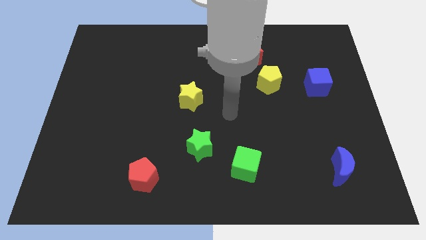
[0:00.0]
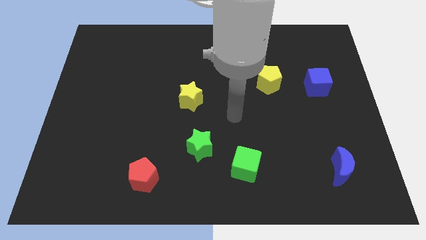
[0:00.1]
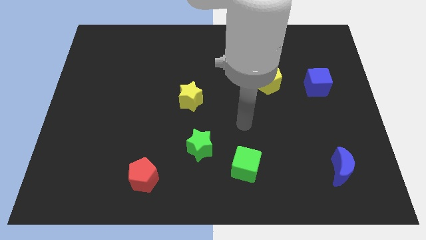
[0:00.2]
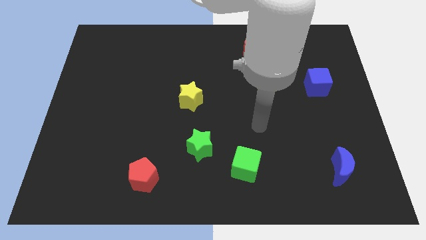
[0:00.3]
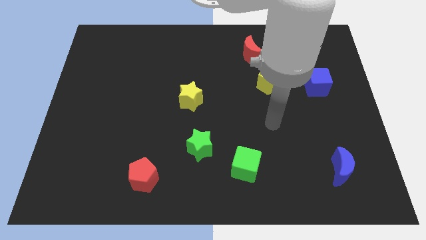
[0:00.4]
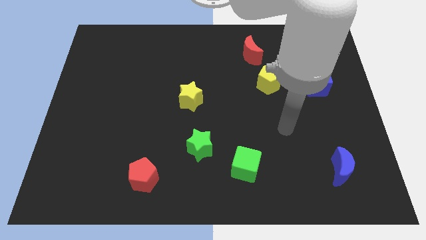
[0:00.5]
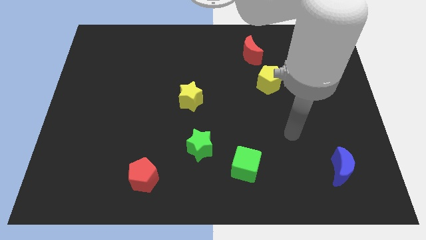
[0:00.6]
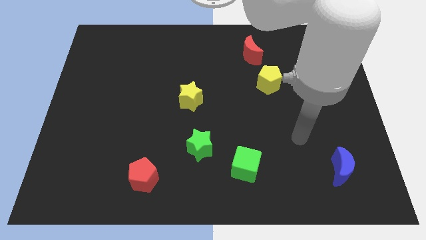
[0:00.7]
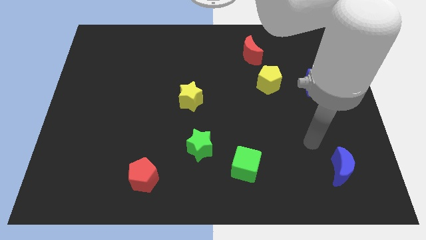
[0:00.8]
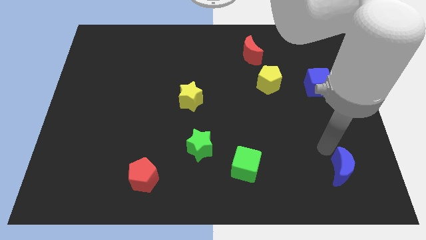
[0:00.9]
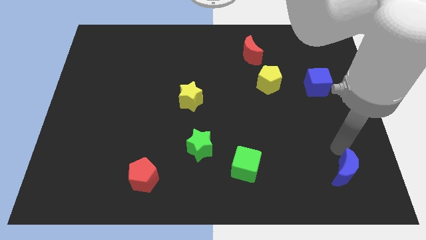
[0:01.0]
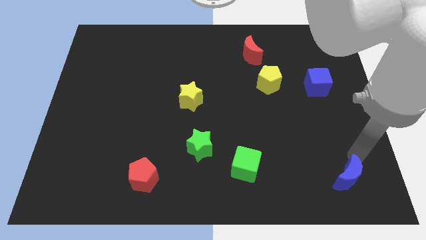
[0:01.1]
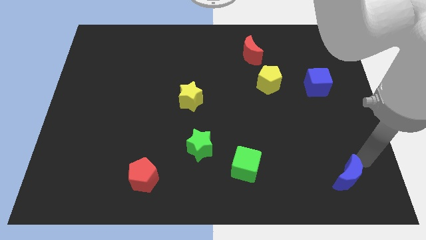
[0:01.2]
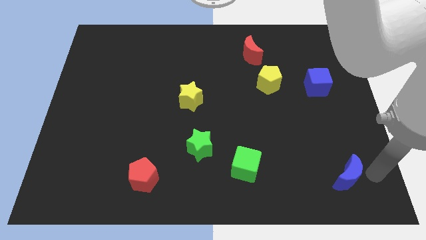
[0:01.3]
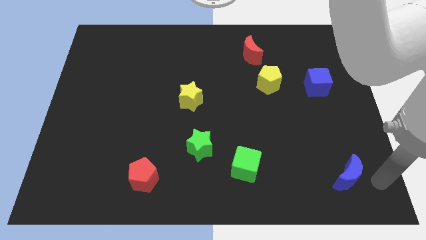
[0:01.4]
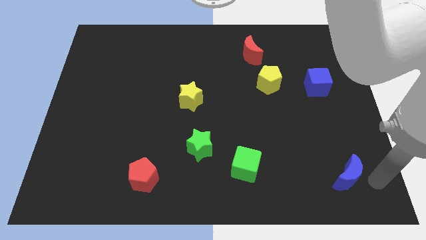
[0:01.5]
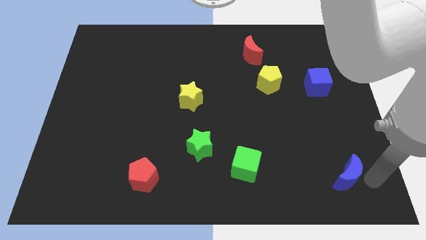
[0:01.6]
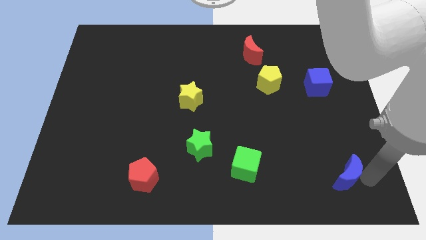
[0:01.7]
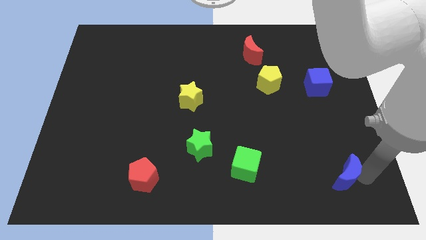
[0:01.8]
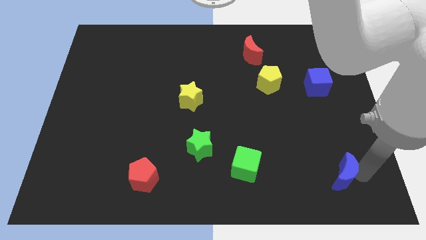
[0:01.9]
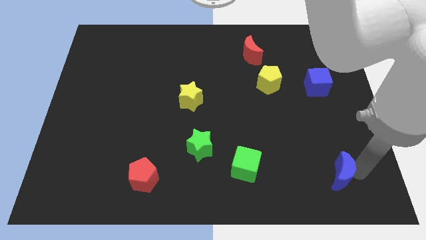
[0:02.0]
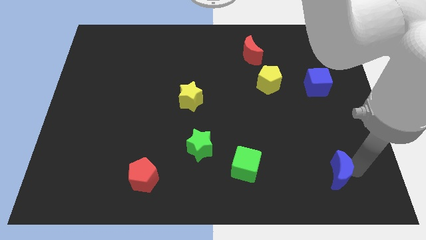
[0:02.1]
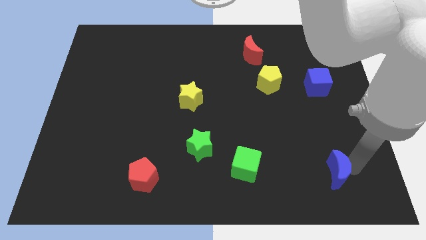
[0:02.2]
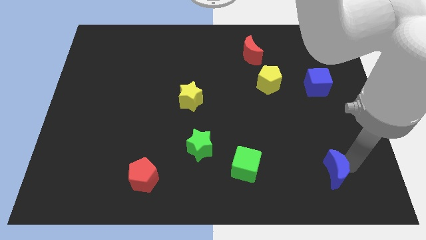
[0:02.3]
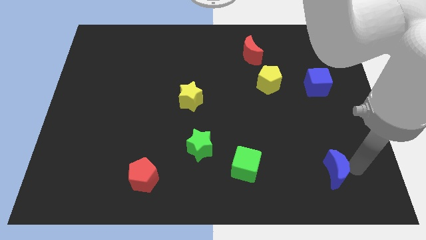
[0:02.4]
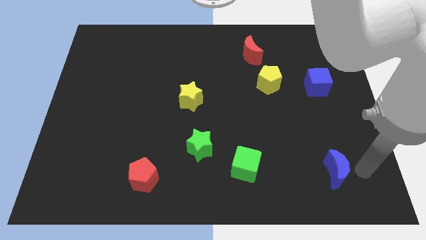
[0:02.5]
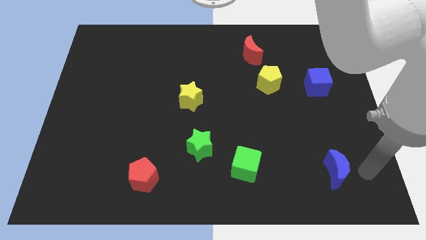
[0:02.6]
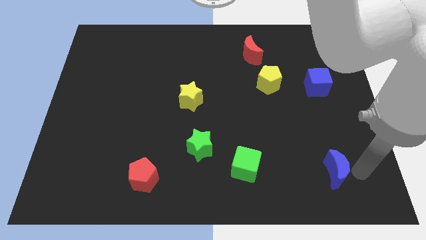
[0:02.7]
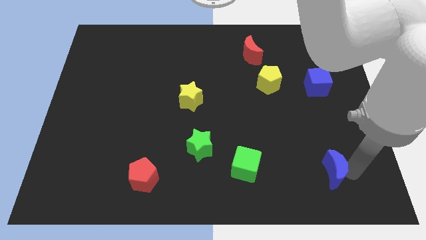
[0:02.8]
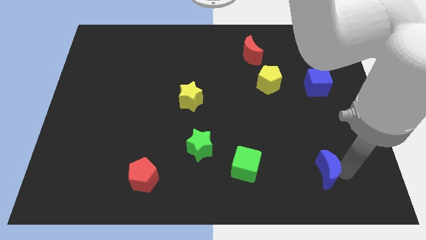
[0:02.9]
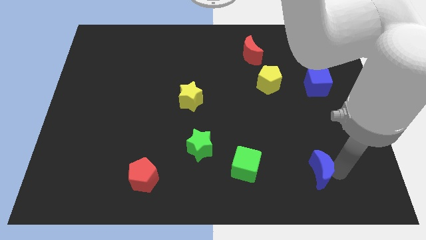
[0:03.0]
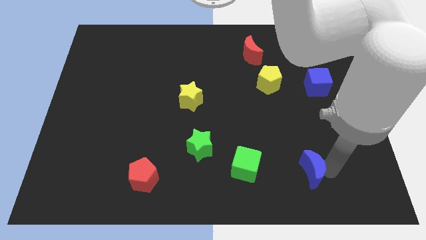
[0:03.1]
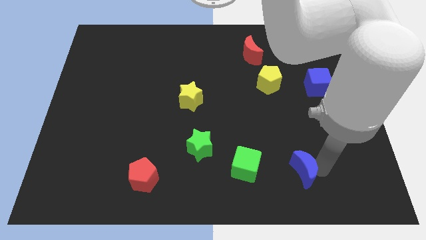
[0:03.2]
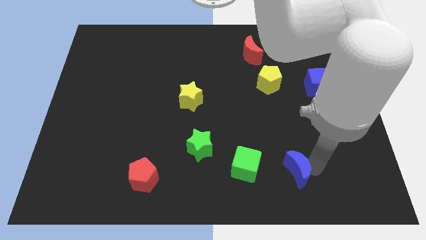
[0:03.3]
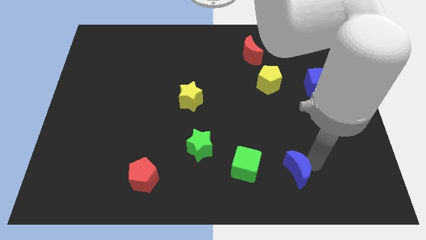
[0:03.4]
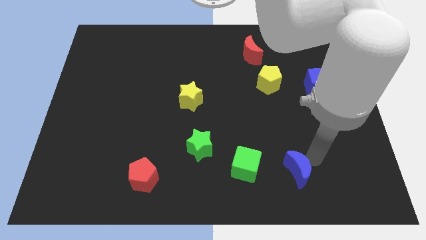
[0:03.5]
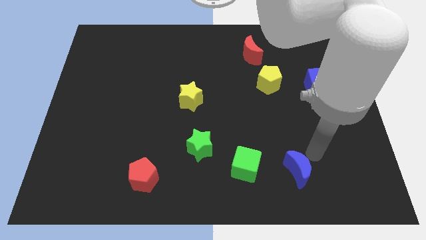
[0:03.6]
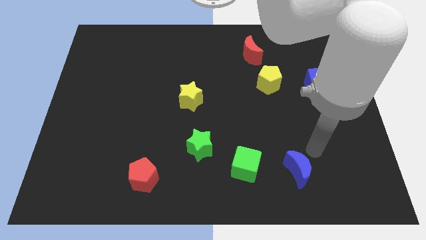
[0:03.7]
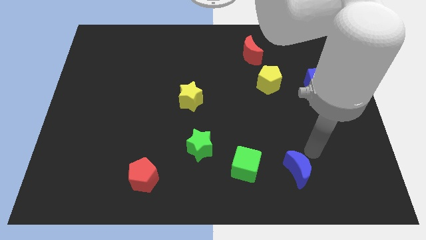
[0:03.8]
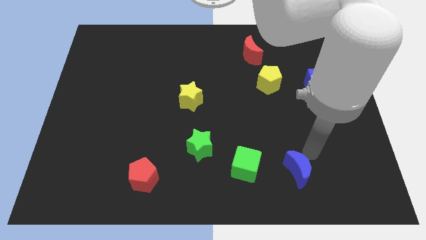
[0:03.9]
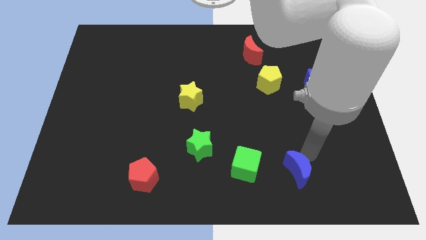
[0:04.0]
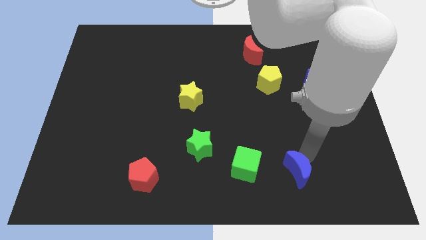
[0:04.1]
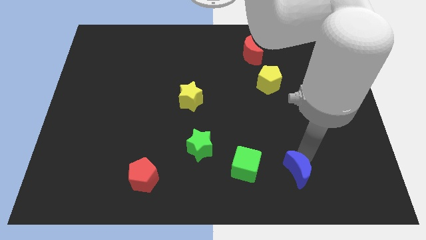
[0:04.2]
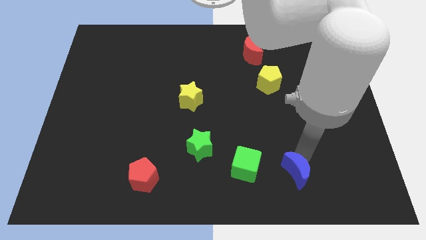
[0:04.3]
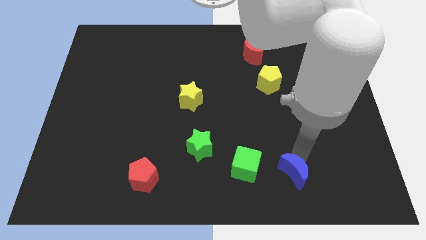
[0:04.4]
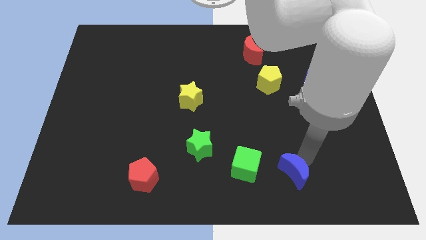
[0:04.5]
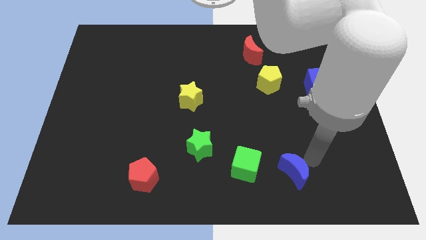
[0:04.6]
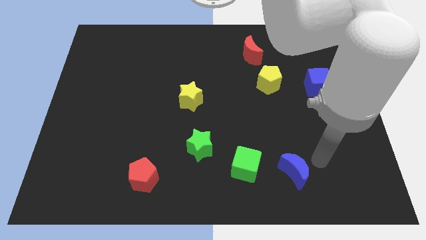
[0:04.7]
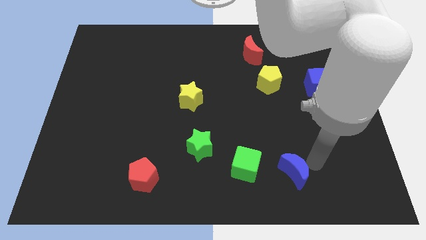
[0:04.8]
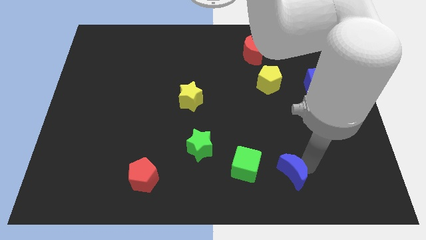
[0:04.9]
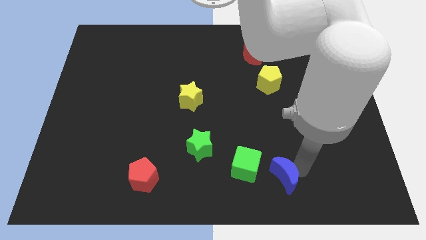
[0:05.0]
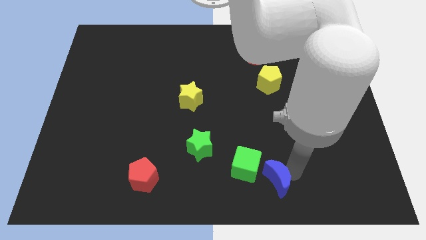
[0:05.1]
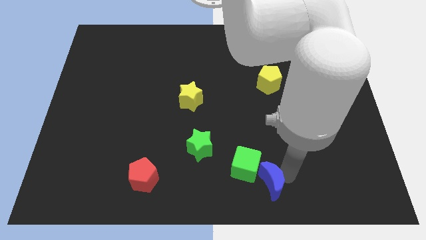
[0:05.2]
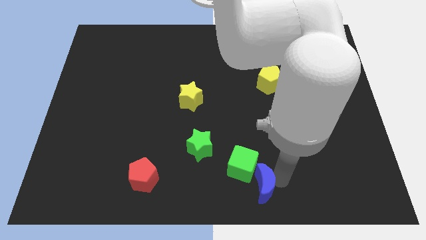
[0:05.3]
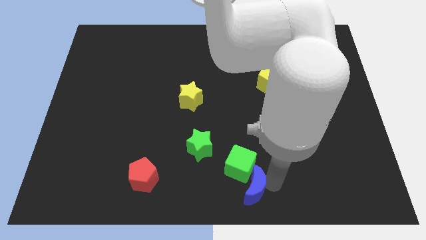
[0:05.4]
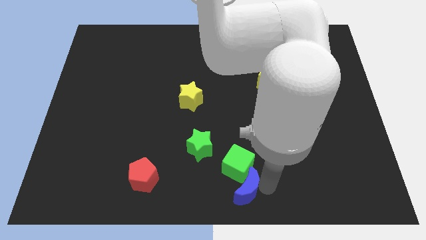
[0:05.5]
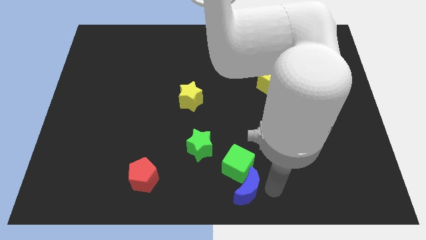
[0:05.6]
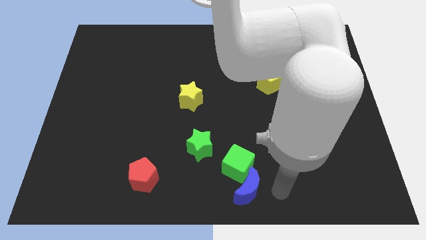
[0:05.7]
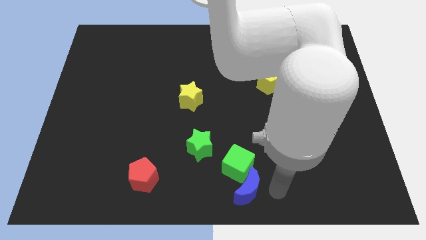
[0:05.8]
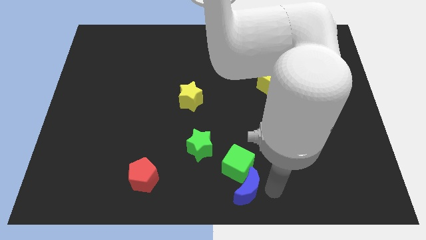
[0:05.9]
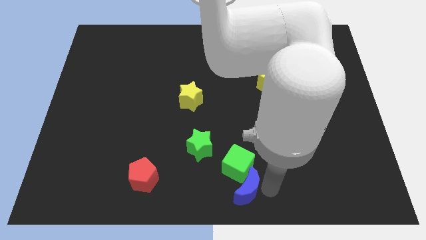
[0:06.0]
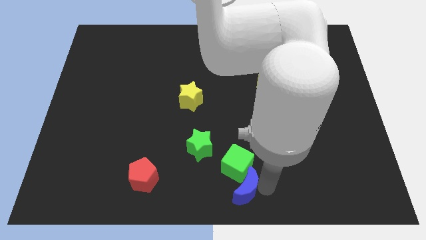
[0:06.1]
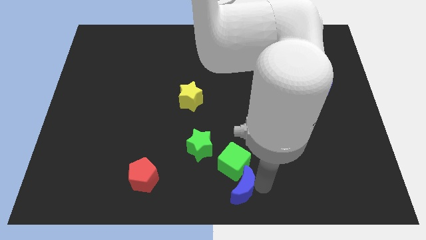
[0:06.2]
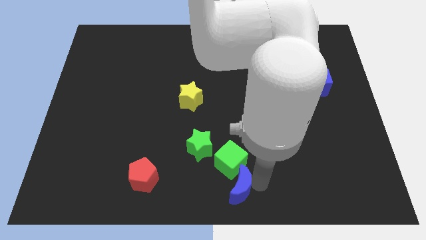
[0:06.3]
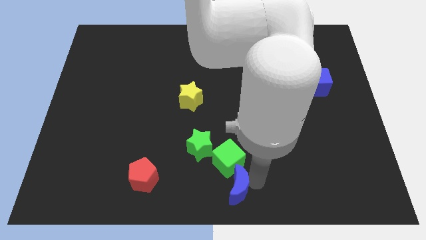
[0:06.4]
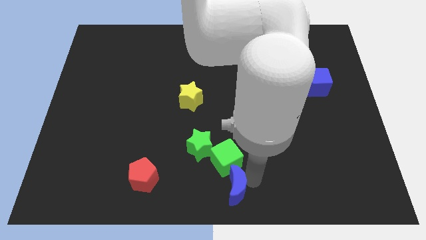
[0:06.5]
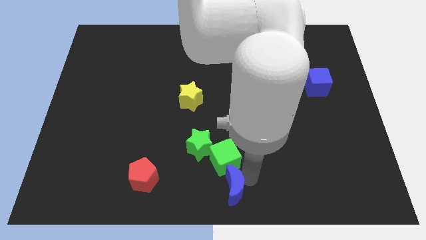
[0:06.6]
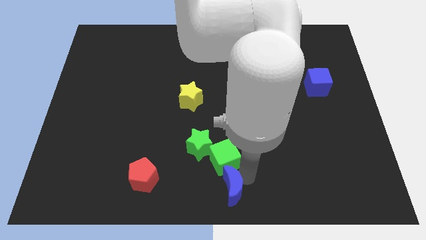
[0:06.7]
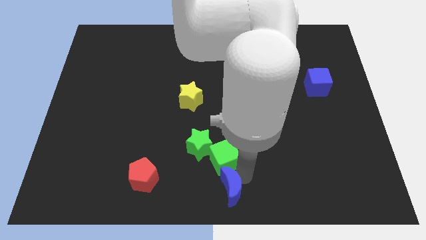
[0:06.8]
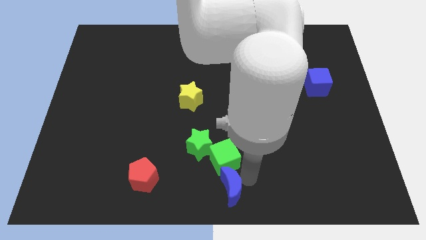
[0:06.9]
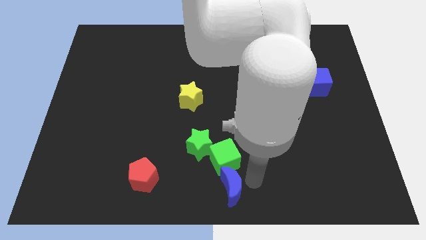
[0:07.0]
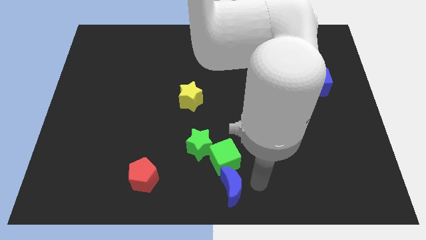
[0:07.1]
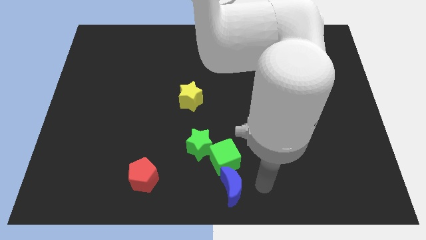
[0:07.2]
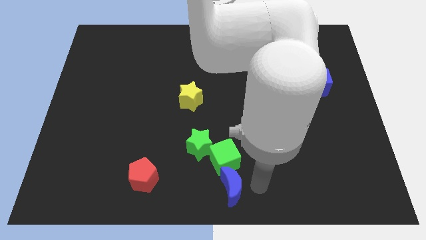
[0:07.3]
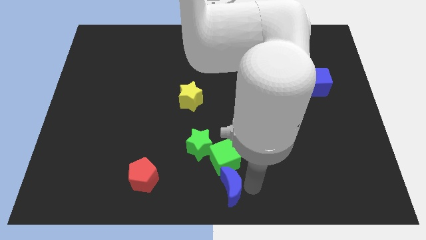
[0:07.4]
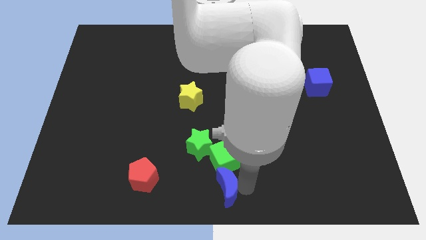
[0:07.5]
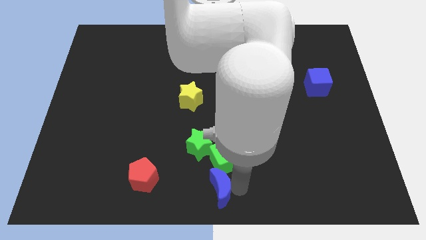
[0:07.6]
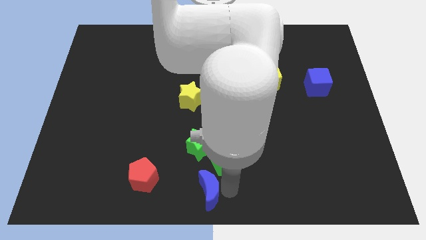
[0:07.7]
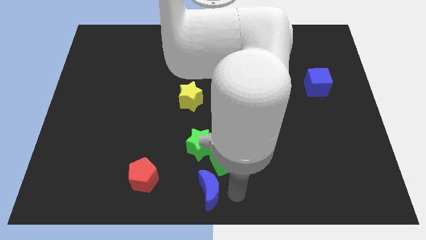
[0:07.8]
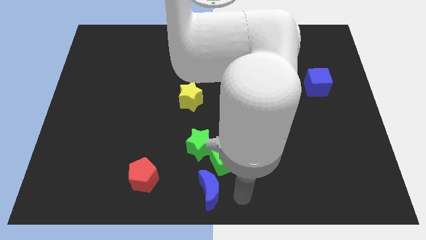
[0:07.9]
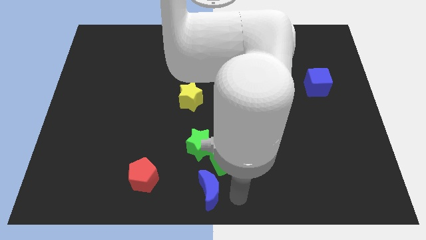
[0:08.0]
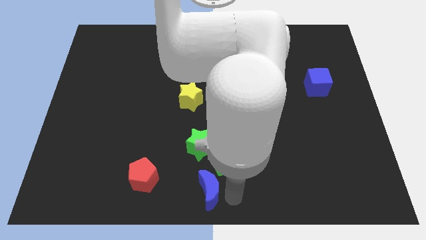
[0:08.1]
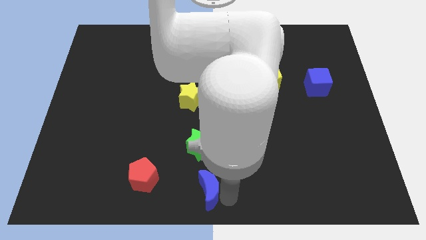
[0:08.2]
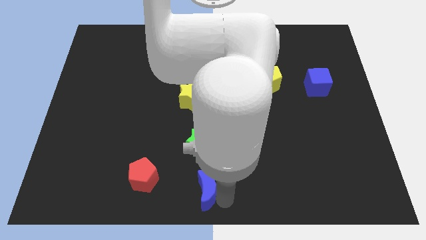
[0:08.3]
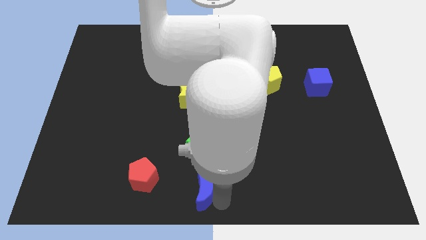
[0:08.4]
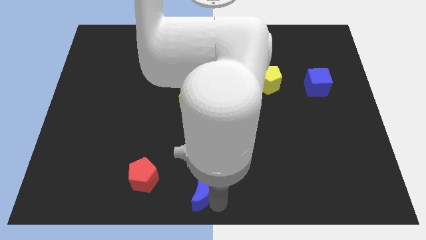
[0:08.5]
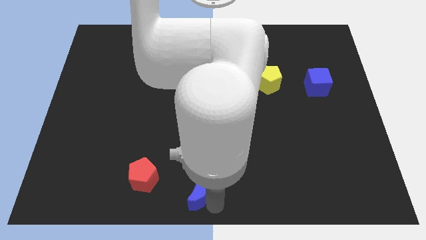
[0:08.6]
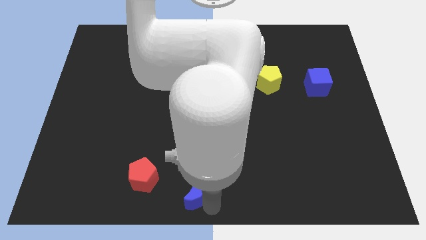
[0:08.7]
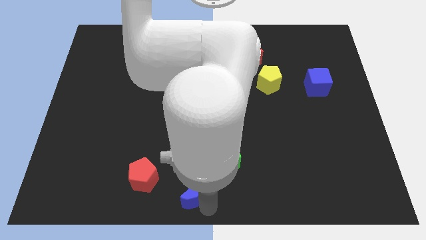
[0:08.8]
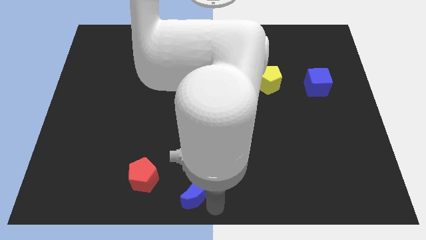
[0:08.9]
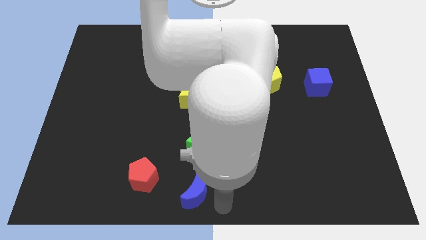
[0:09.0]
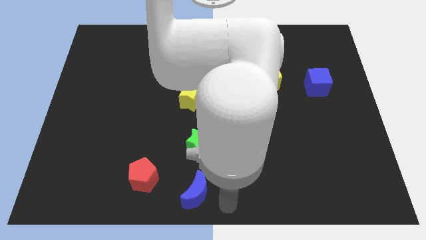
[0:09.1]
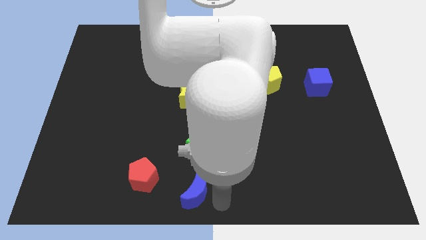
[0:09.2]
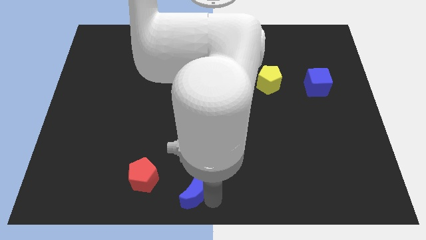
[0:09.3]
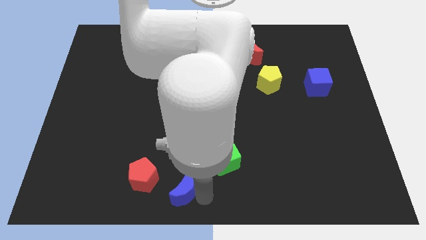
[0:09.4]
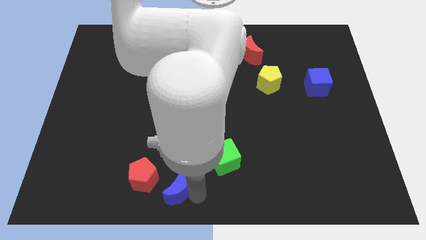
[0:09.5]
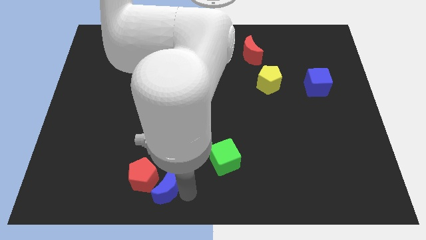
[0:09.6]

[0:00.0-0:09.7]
move the blue moon towards the red pentagon
